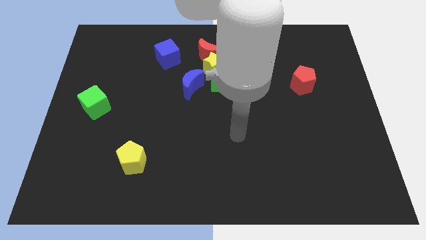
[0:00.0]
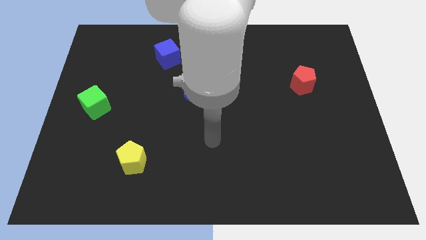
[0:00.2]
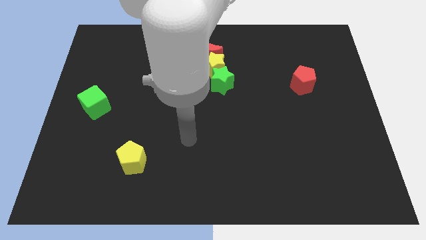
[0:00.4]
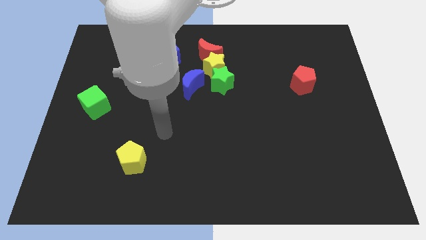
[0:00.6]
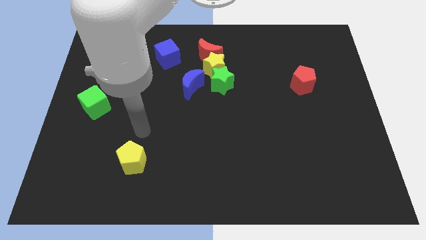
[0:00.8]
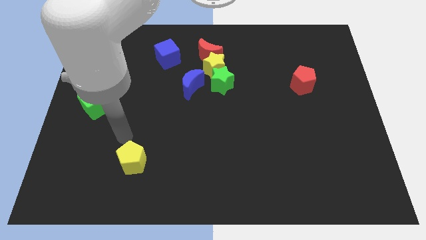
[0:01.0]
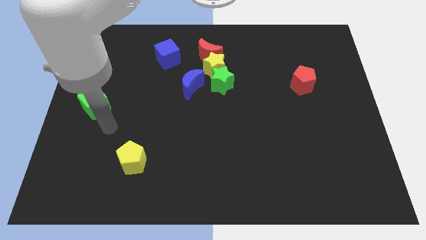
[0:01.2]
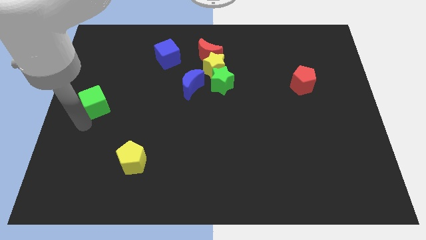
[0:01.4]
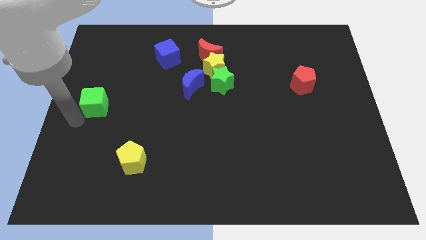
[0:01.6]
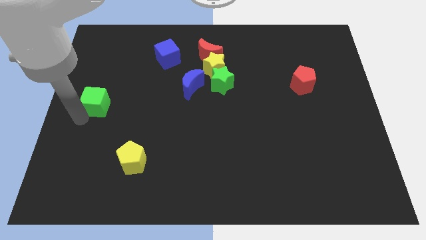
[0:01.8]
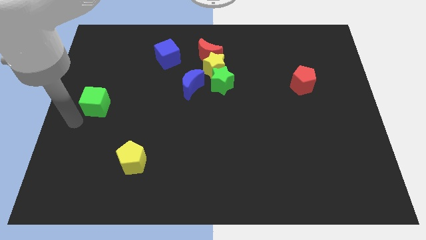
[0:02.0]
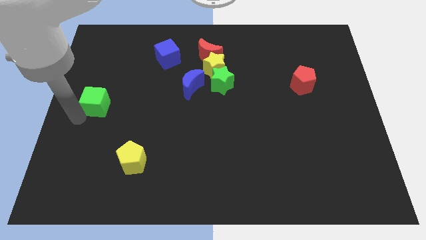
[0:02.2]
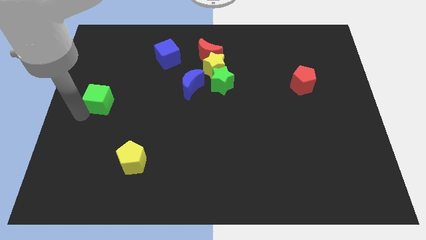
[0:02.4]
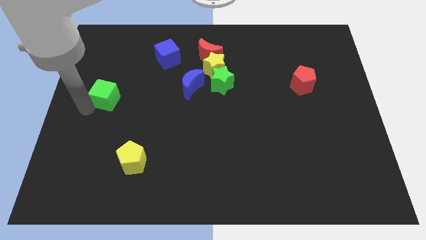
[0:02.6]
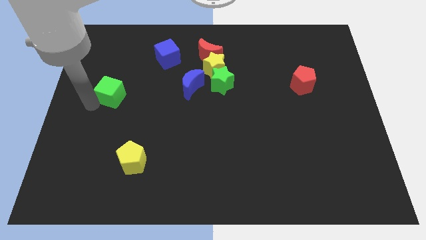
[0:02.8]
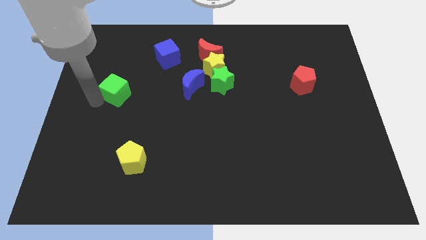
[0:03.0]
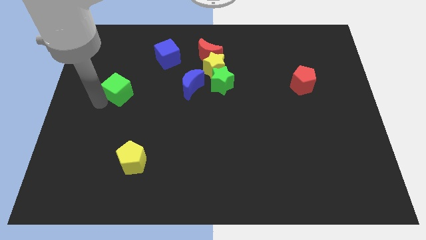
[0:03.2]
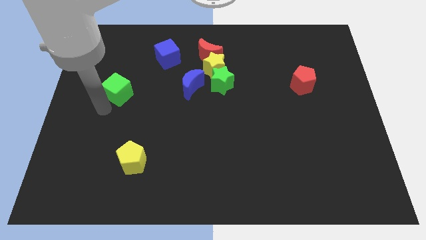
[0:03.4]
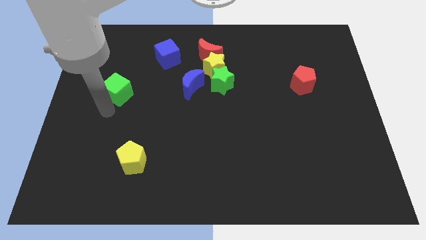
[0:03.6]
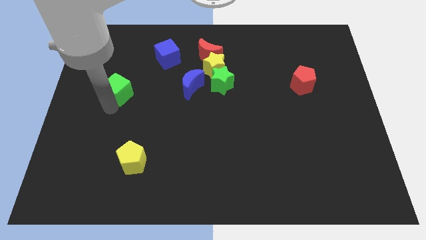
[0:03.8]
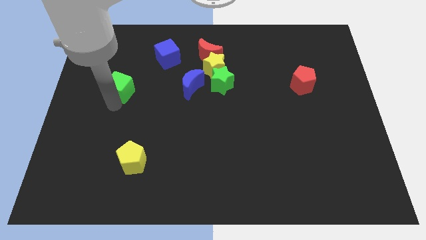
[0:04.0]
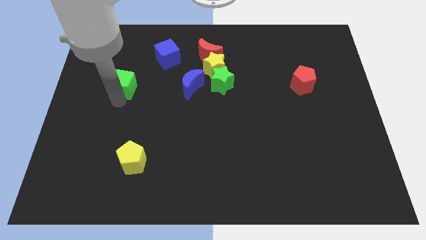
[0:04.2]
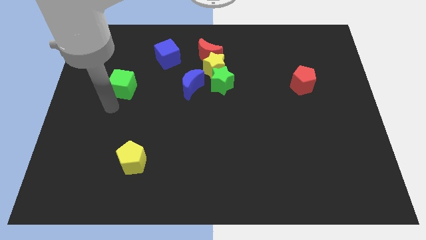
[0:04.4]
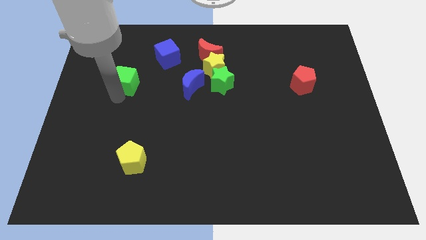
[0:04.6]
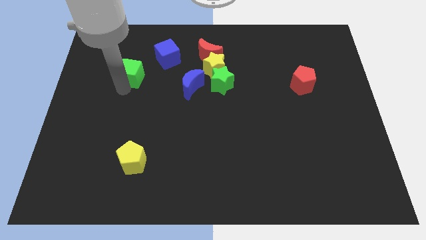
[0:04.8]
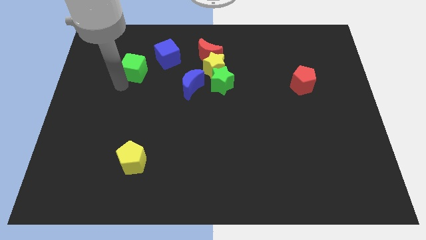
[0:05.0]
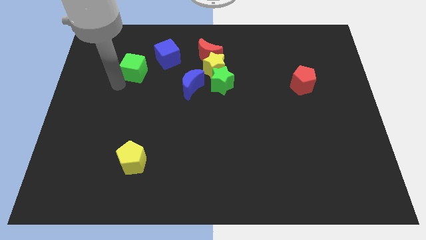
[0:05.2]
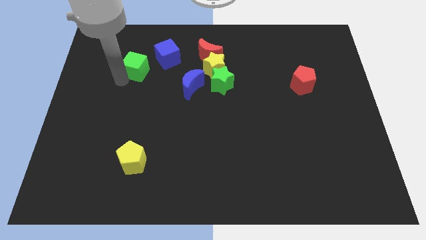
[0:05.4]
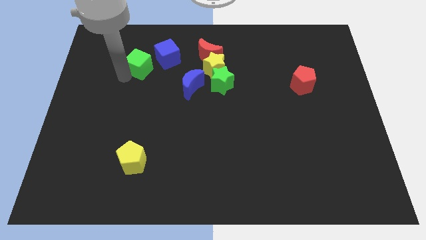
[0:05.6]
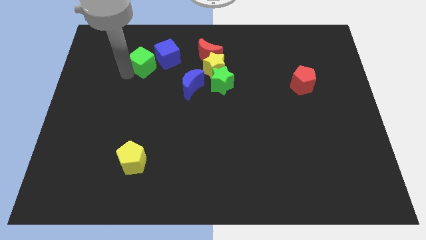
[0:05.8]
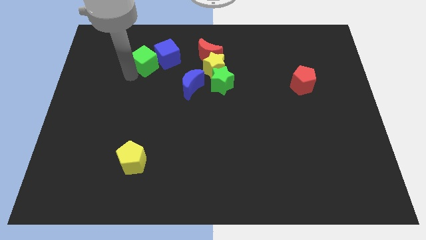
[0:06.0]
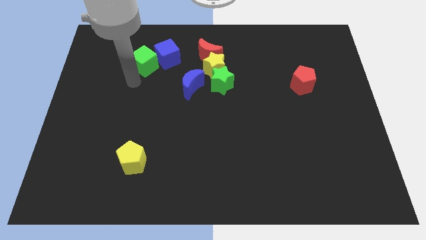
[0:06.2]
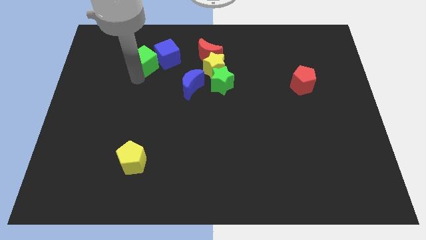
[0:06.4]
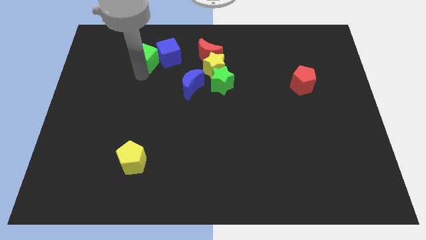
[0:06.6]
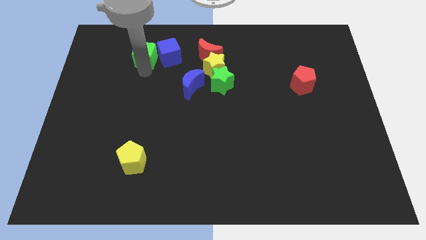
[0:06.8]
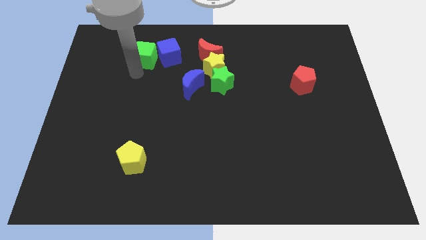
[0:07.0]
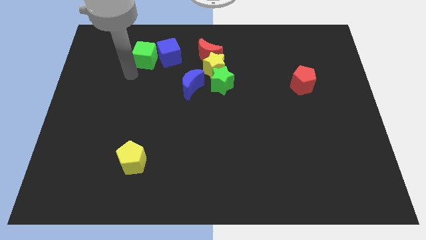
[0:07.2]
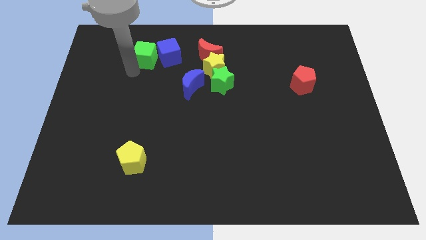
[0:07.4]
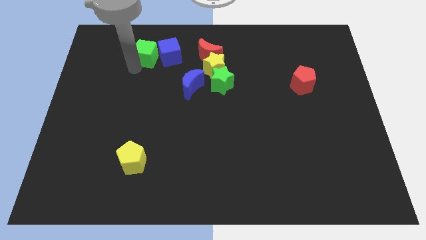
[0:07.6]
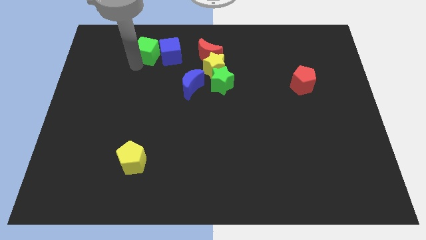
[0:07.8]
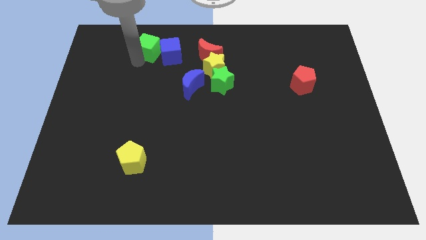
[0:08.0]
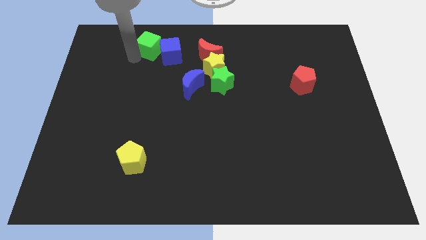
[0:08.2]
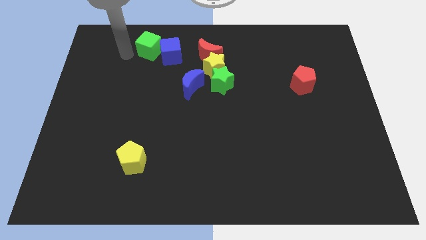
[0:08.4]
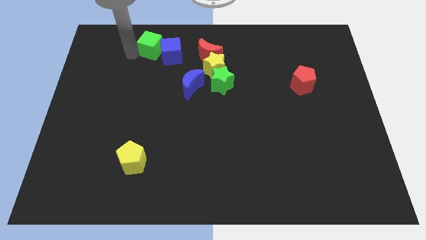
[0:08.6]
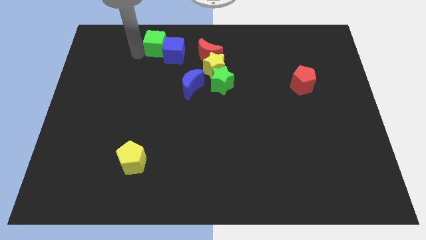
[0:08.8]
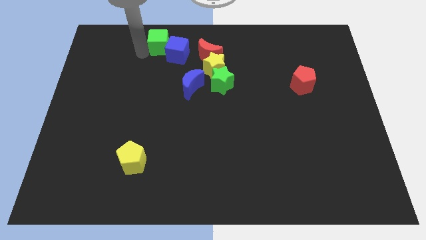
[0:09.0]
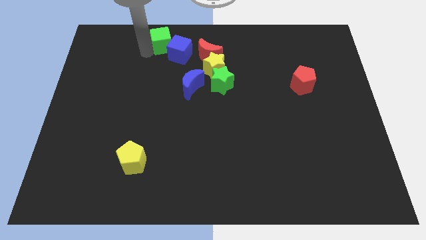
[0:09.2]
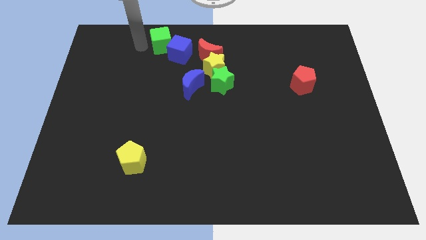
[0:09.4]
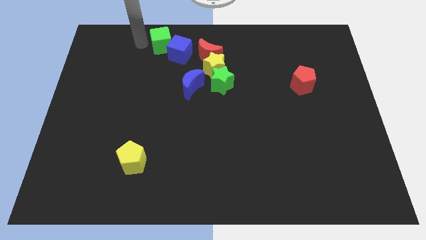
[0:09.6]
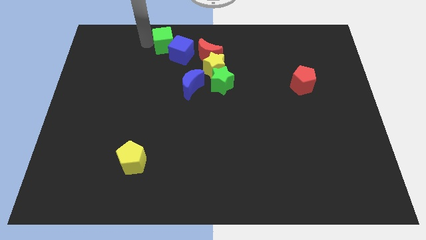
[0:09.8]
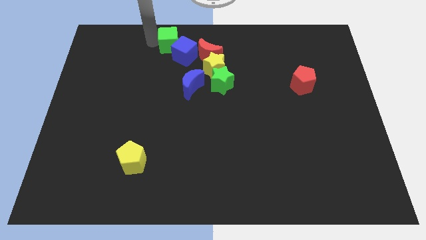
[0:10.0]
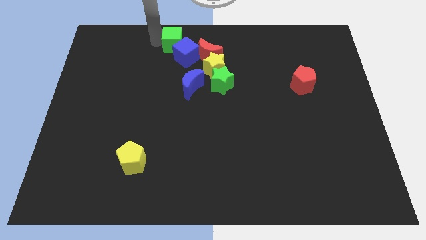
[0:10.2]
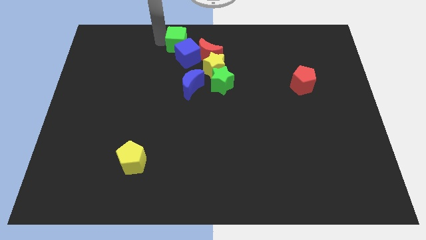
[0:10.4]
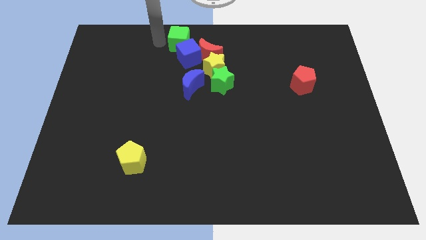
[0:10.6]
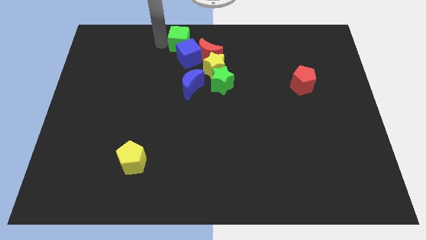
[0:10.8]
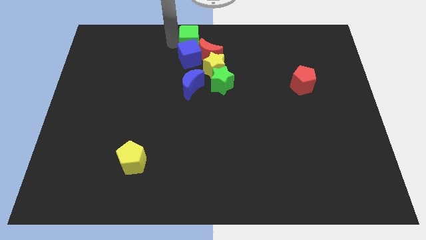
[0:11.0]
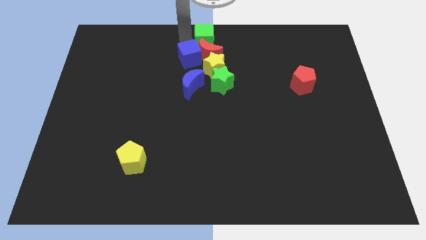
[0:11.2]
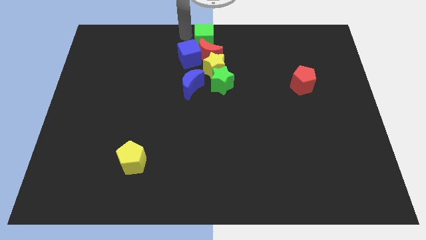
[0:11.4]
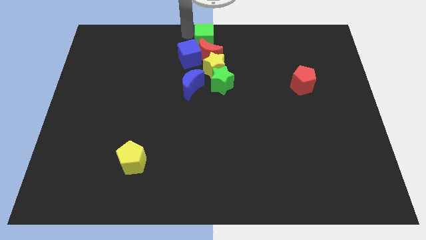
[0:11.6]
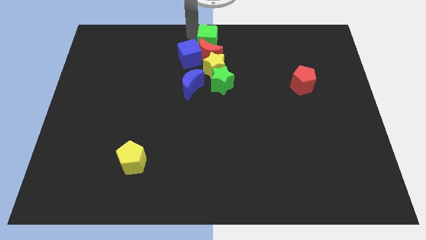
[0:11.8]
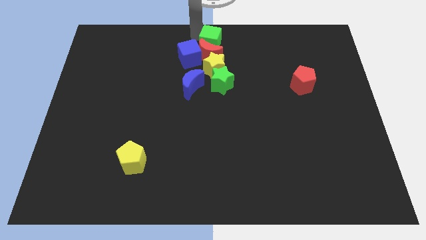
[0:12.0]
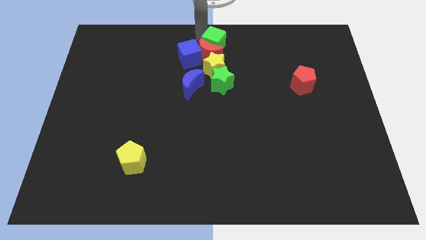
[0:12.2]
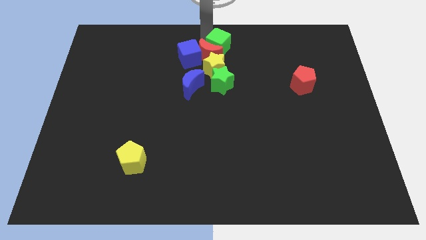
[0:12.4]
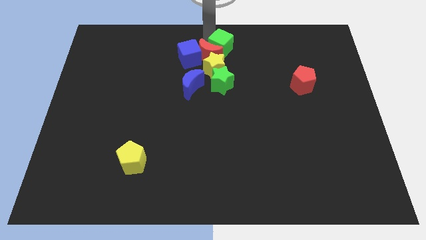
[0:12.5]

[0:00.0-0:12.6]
move the green cube to the top right of the yellow star
